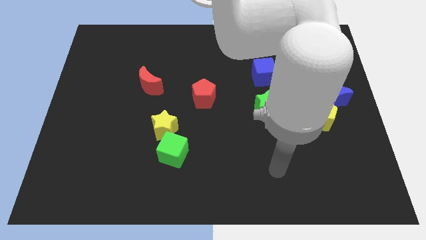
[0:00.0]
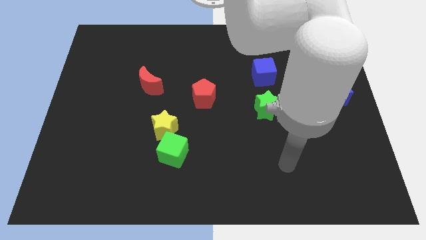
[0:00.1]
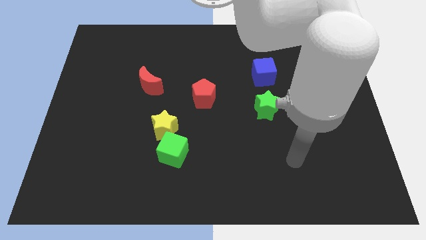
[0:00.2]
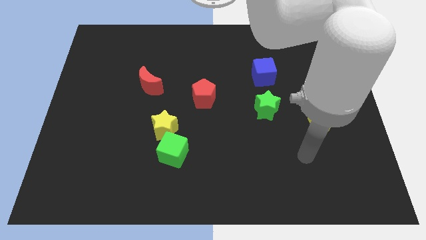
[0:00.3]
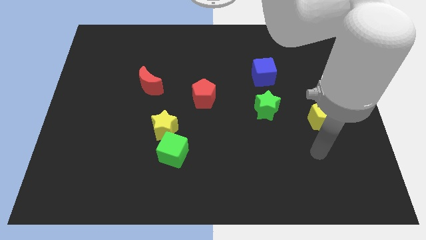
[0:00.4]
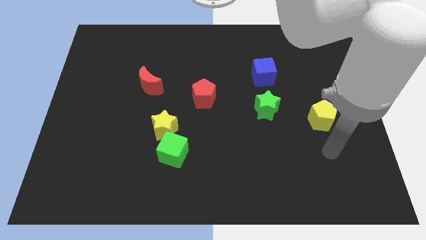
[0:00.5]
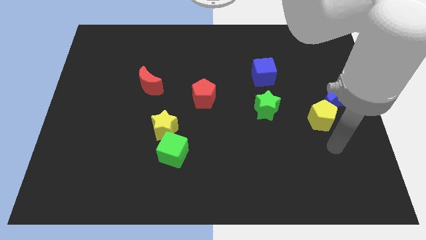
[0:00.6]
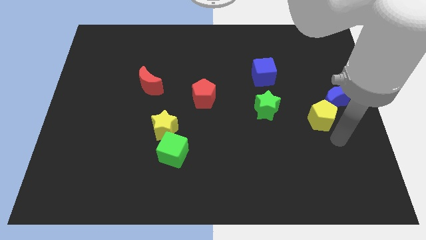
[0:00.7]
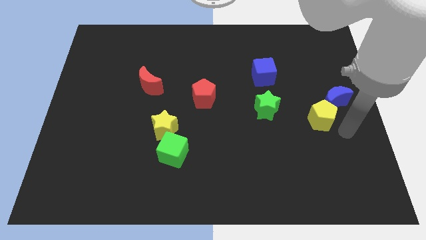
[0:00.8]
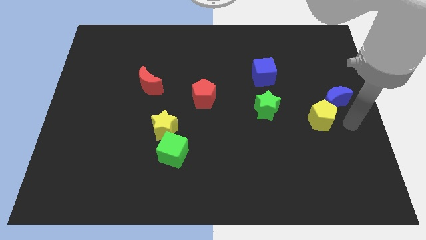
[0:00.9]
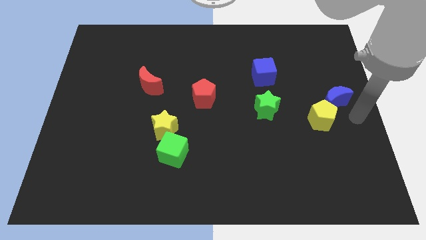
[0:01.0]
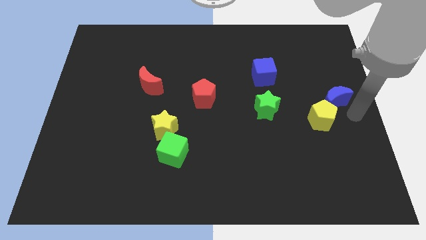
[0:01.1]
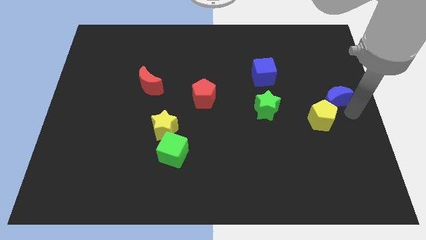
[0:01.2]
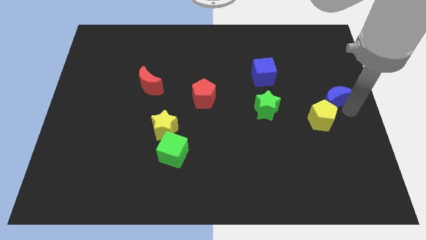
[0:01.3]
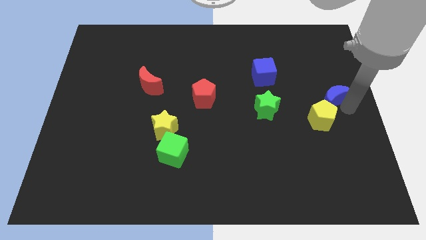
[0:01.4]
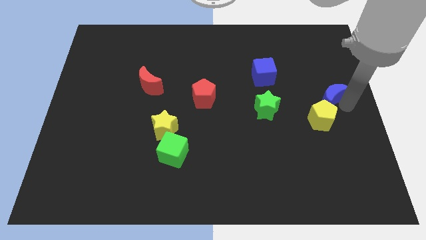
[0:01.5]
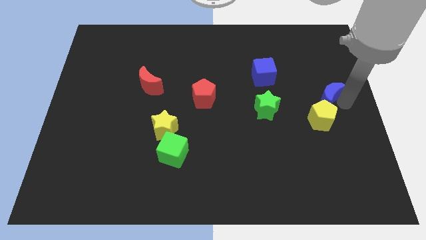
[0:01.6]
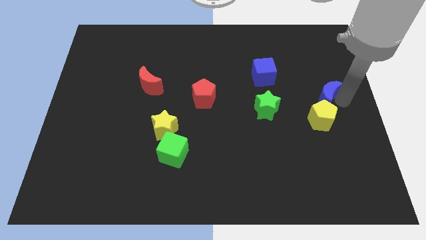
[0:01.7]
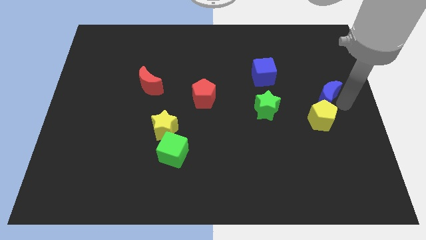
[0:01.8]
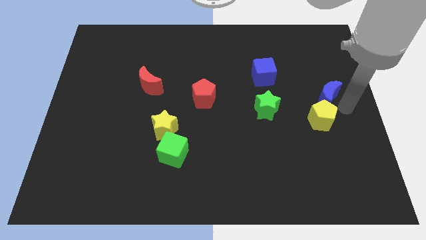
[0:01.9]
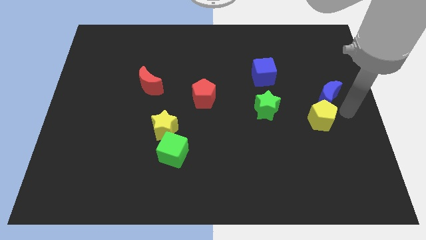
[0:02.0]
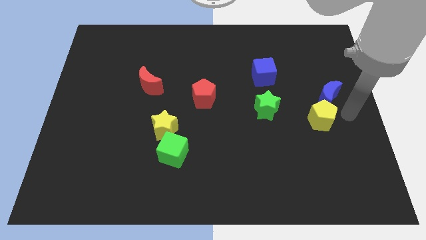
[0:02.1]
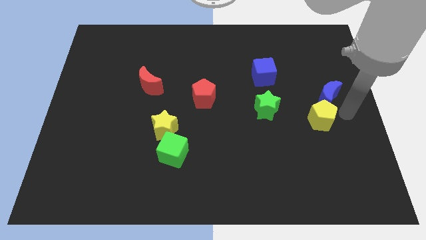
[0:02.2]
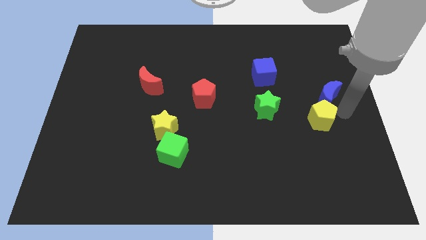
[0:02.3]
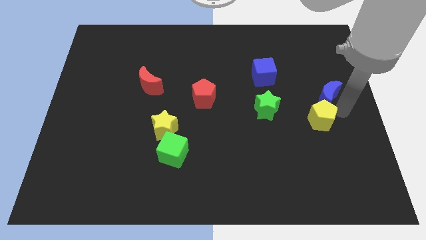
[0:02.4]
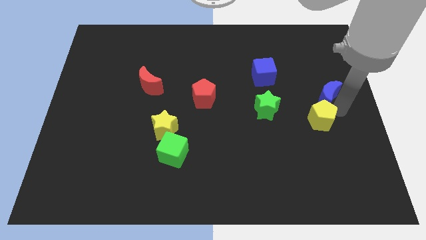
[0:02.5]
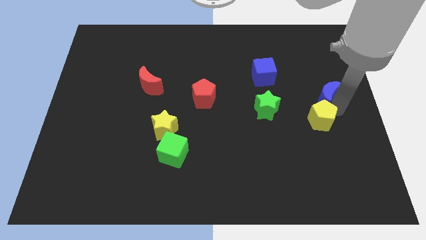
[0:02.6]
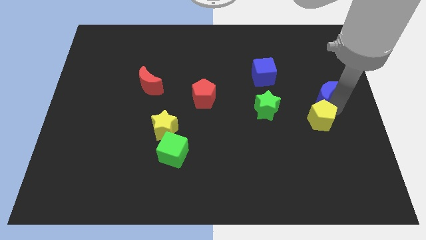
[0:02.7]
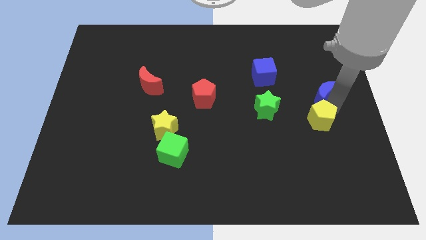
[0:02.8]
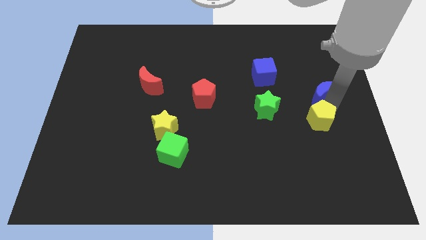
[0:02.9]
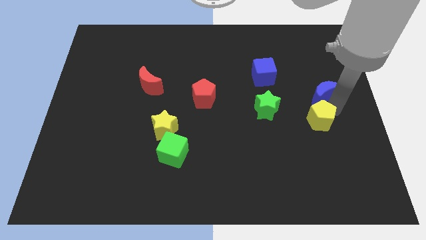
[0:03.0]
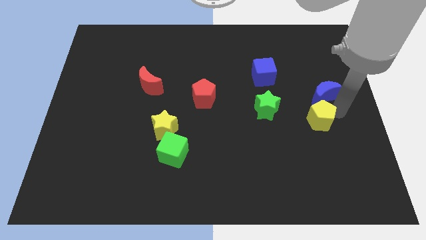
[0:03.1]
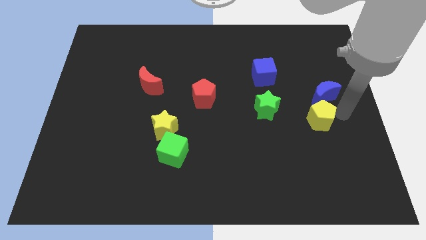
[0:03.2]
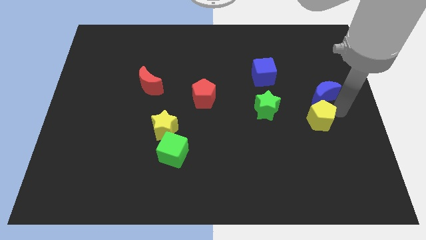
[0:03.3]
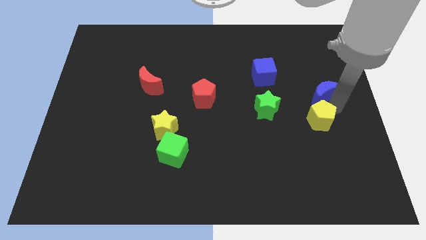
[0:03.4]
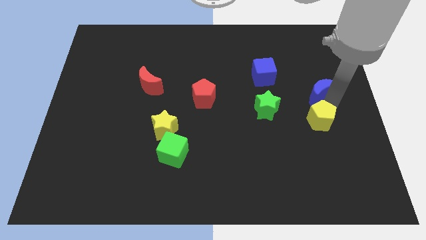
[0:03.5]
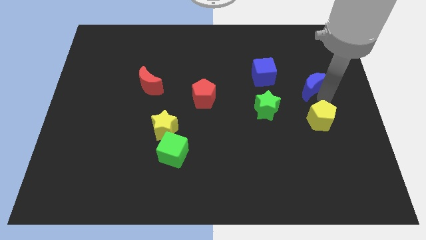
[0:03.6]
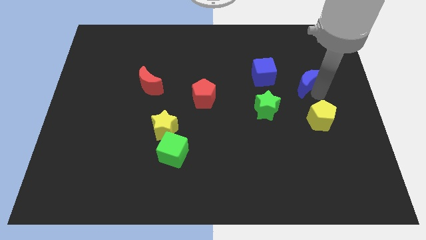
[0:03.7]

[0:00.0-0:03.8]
move the blue moon a little bit upwards and then to the left

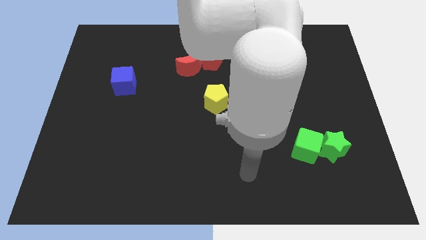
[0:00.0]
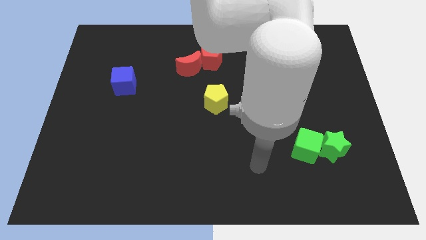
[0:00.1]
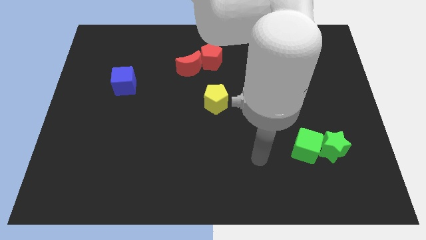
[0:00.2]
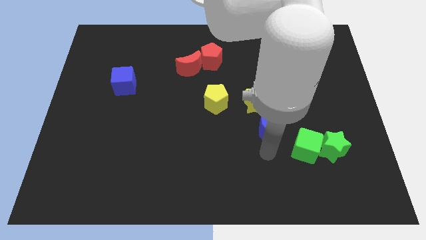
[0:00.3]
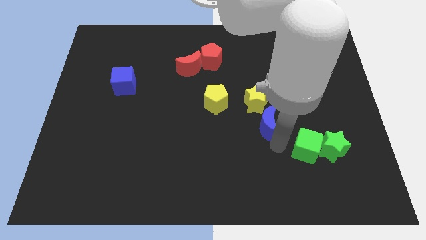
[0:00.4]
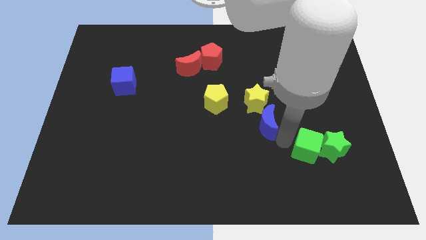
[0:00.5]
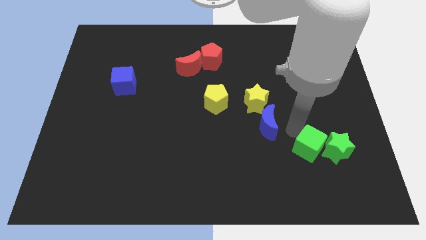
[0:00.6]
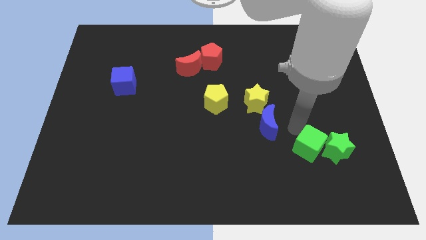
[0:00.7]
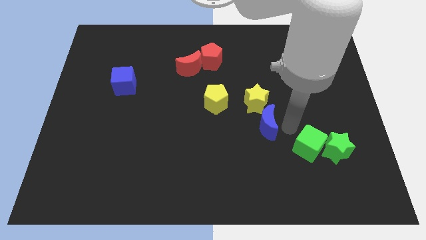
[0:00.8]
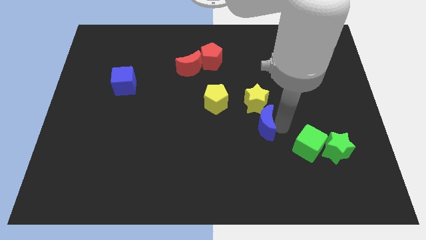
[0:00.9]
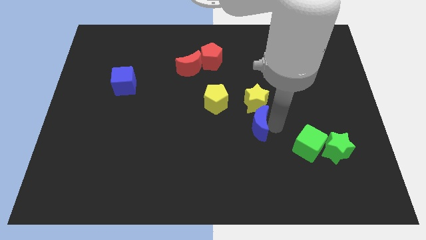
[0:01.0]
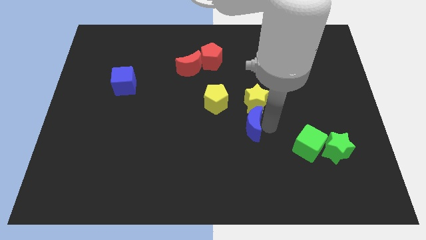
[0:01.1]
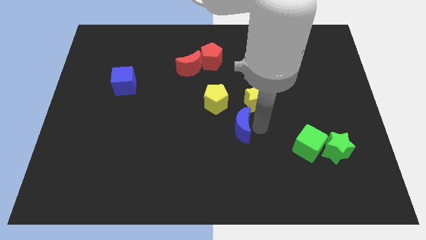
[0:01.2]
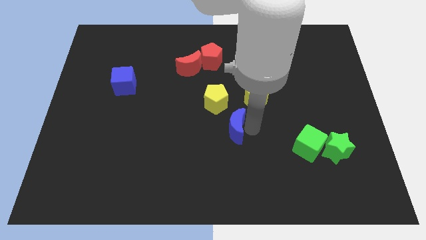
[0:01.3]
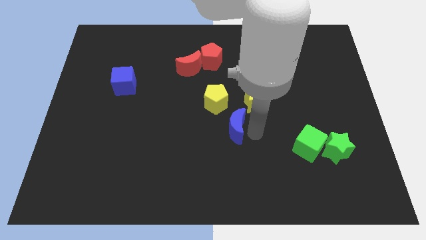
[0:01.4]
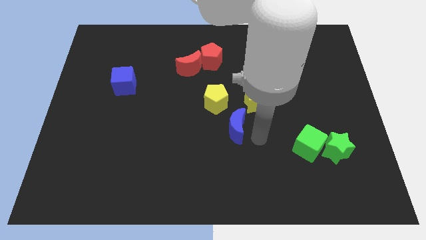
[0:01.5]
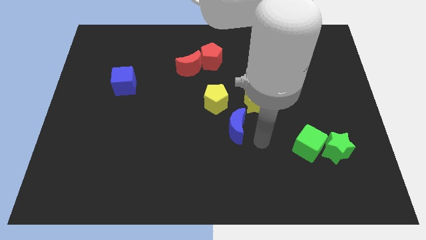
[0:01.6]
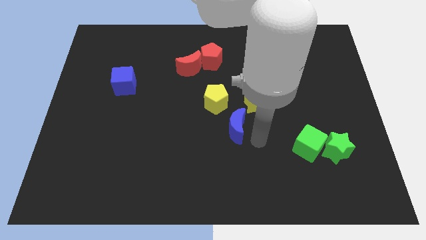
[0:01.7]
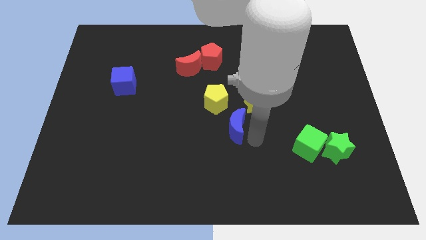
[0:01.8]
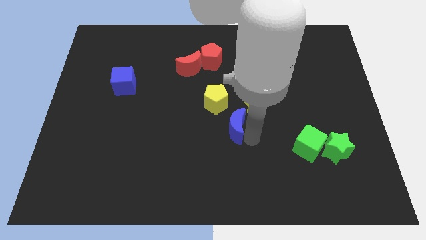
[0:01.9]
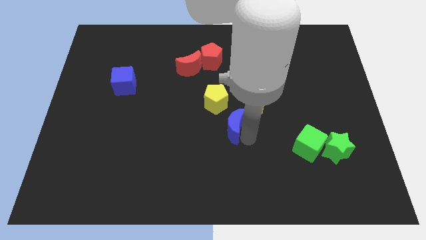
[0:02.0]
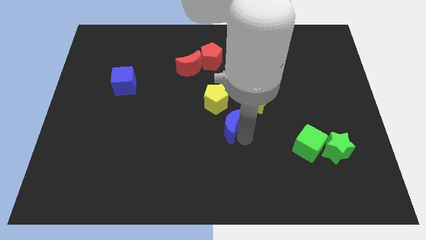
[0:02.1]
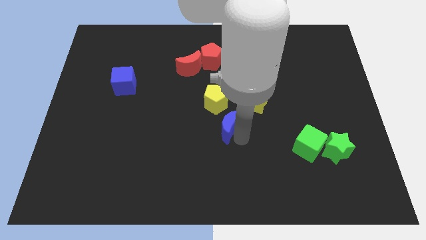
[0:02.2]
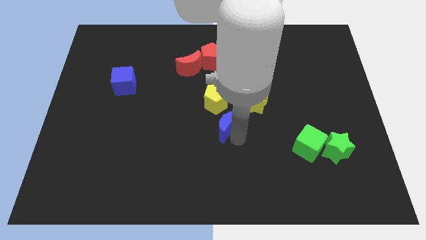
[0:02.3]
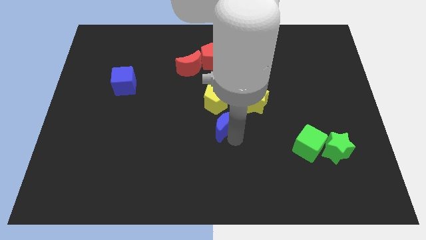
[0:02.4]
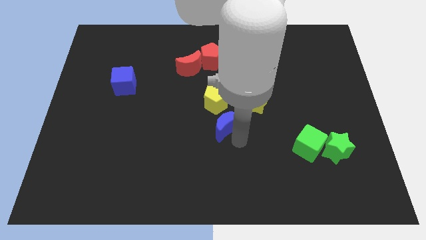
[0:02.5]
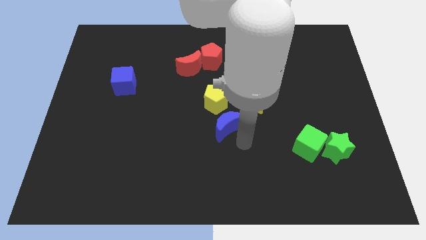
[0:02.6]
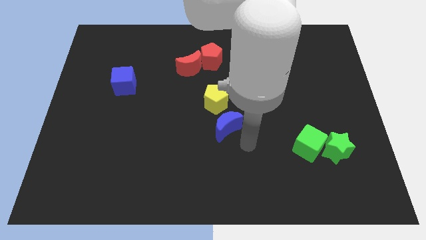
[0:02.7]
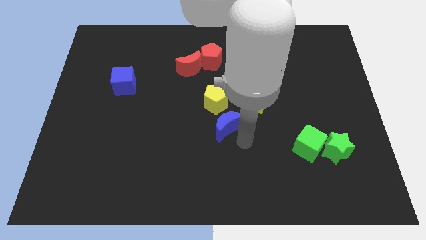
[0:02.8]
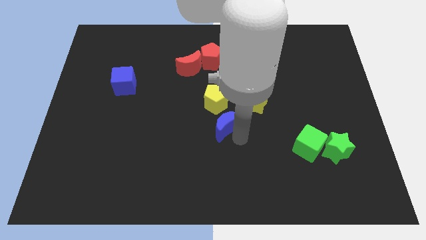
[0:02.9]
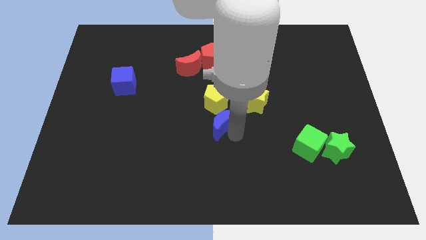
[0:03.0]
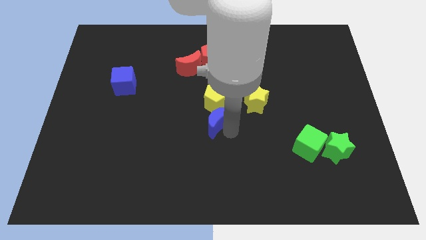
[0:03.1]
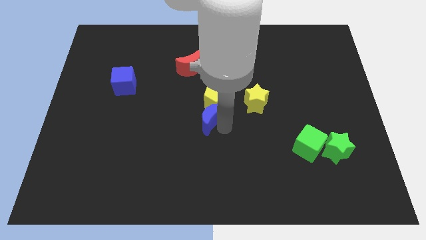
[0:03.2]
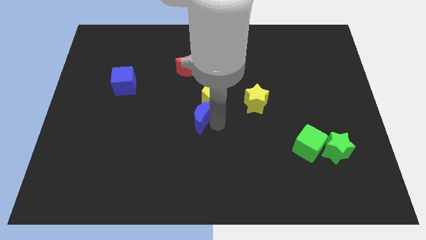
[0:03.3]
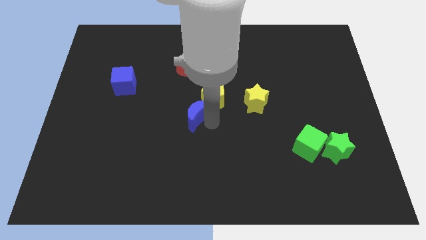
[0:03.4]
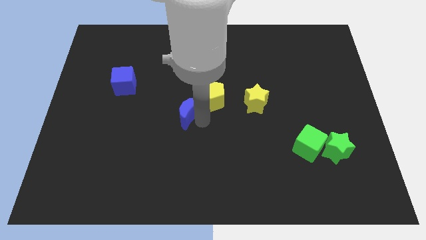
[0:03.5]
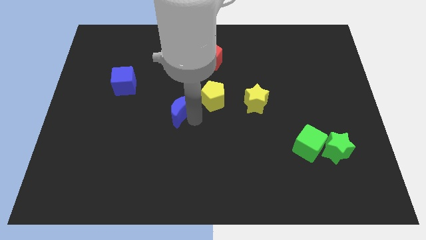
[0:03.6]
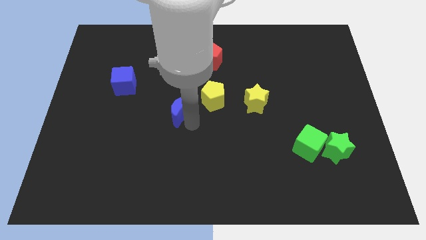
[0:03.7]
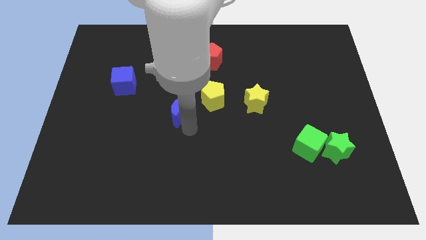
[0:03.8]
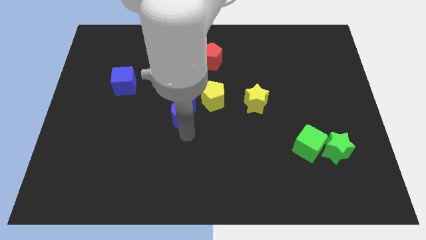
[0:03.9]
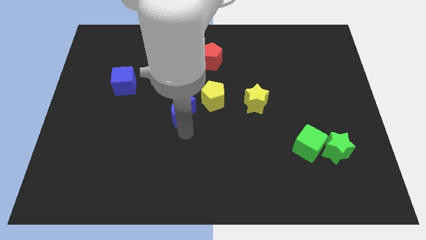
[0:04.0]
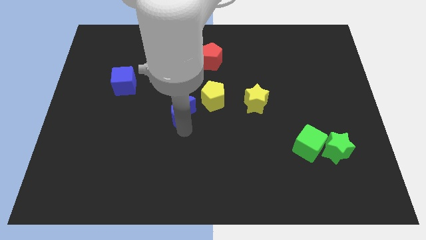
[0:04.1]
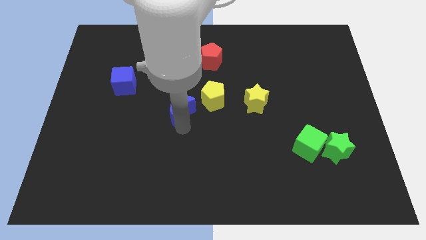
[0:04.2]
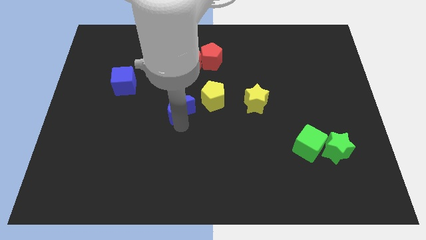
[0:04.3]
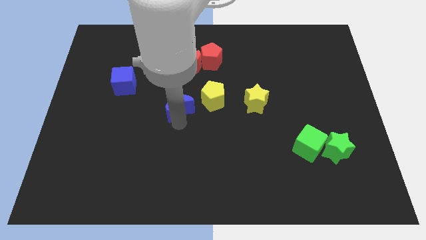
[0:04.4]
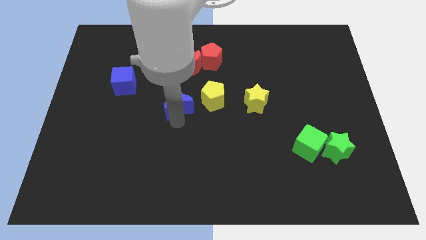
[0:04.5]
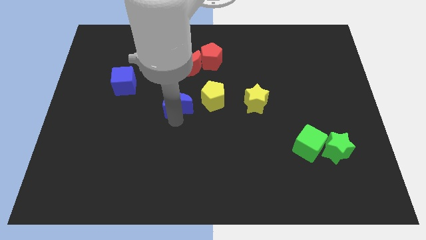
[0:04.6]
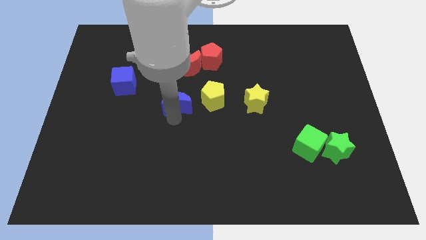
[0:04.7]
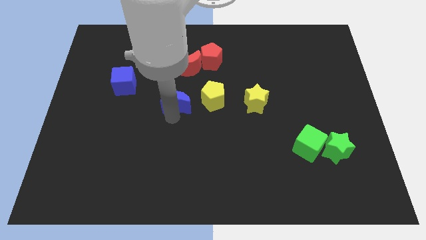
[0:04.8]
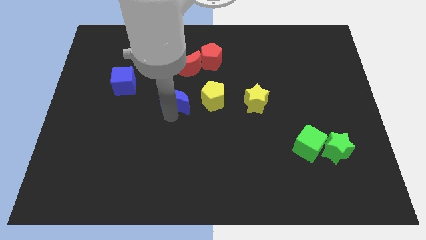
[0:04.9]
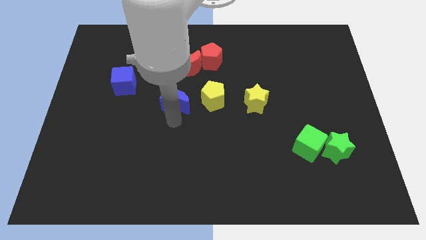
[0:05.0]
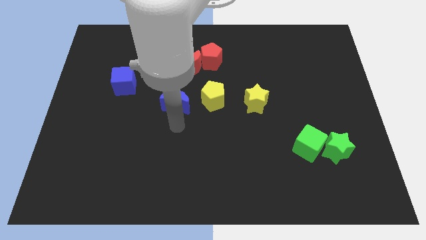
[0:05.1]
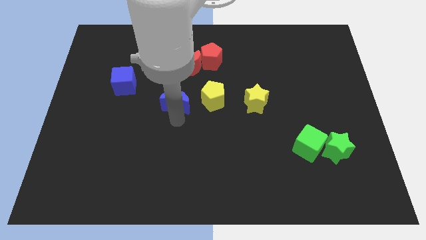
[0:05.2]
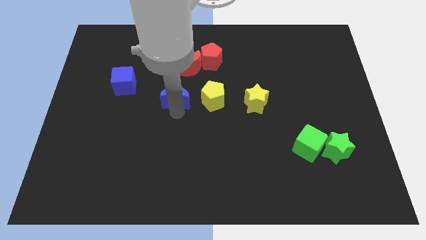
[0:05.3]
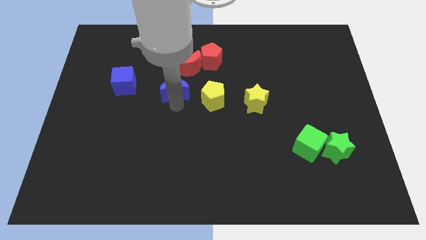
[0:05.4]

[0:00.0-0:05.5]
move the blue moon upwards and left
